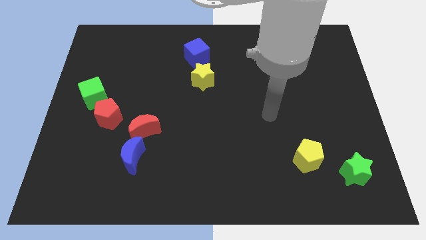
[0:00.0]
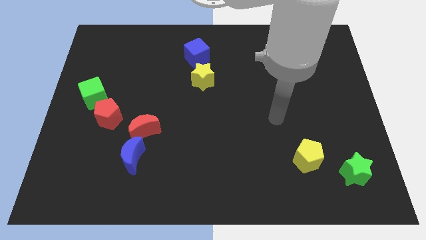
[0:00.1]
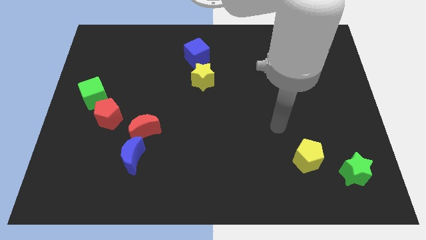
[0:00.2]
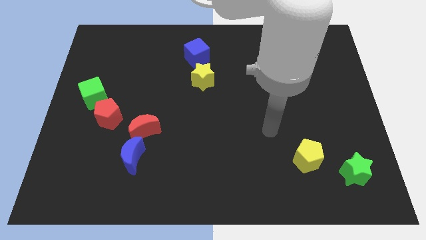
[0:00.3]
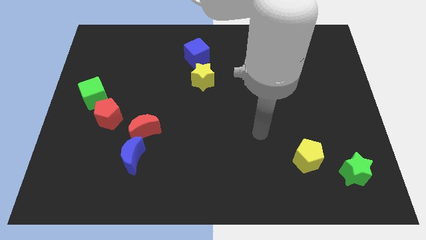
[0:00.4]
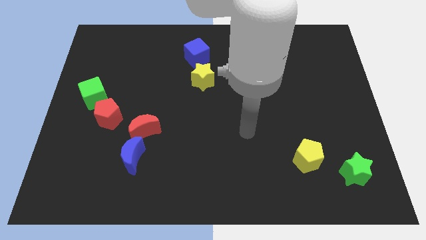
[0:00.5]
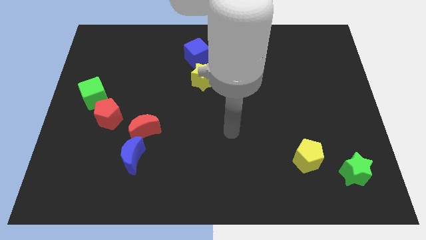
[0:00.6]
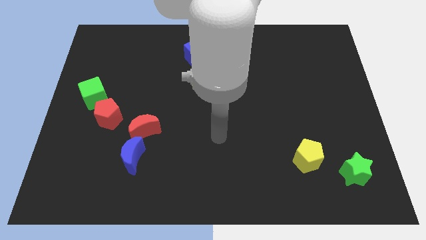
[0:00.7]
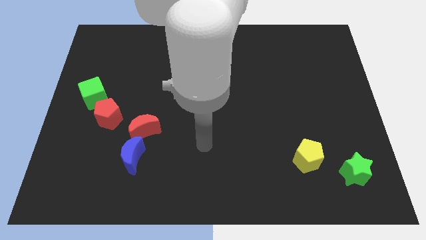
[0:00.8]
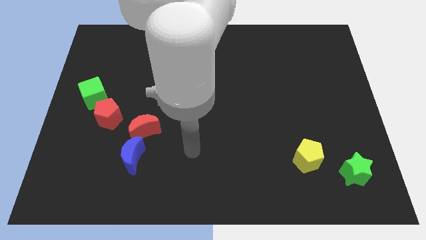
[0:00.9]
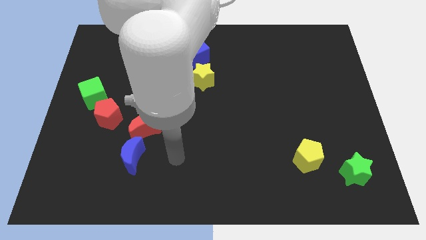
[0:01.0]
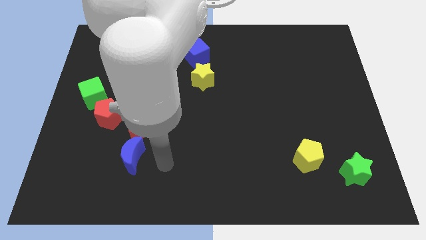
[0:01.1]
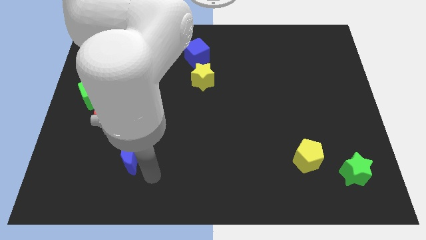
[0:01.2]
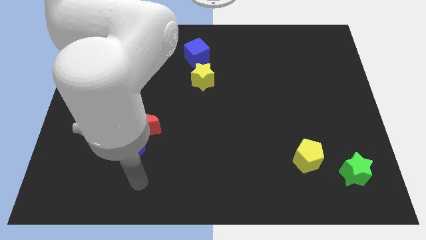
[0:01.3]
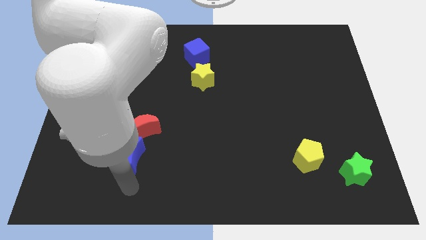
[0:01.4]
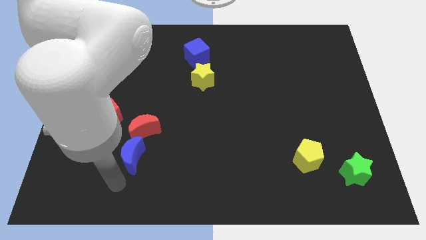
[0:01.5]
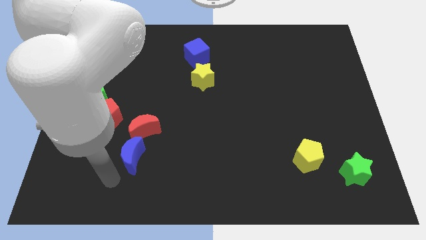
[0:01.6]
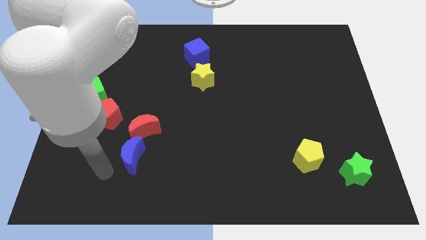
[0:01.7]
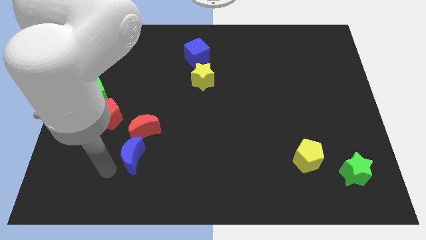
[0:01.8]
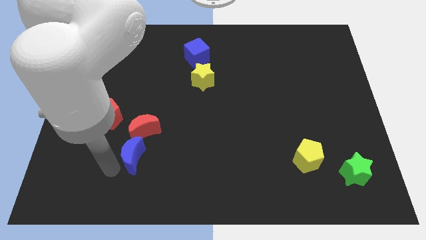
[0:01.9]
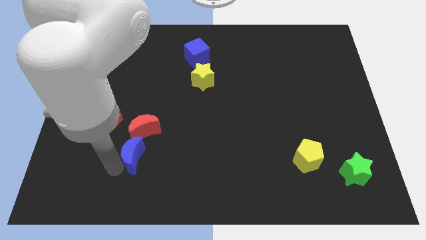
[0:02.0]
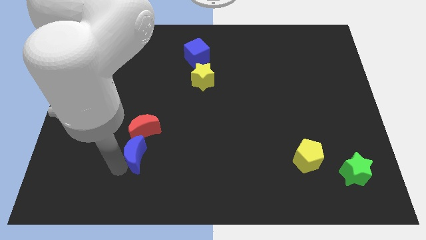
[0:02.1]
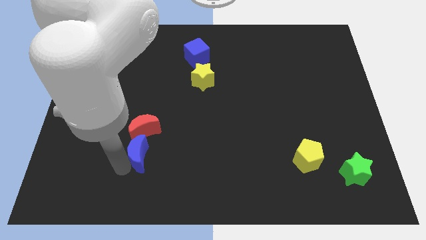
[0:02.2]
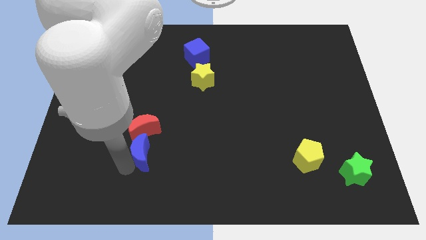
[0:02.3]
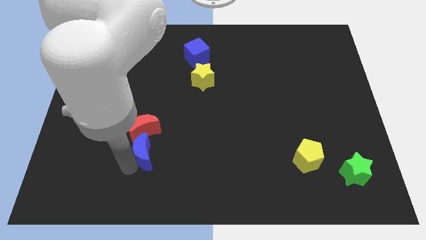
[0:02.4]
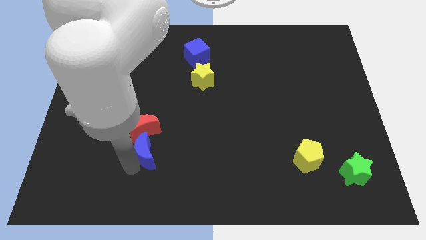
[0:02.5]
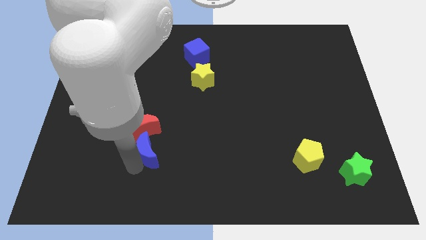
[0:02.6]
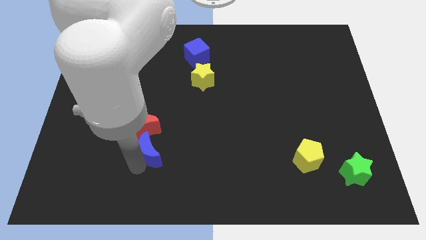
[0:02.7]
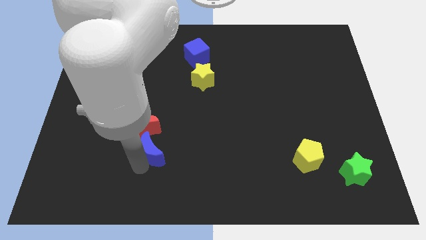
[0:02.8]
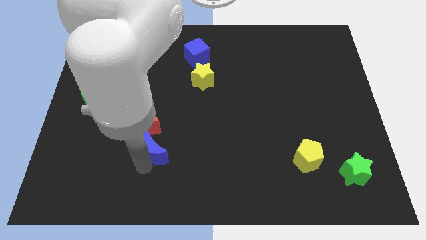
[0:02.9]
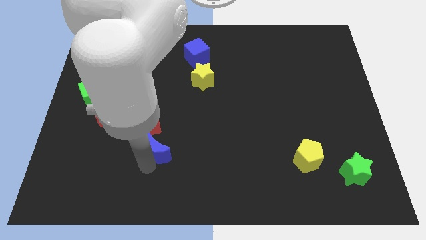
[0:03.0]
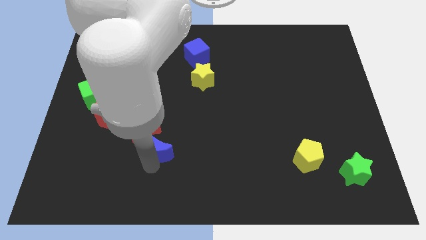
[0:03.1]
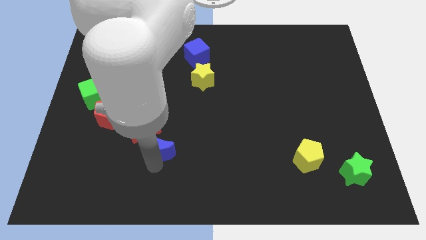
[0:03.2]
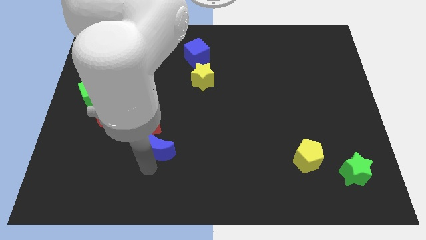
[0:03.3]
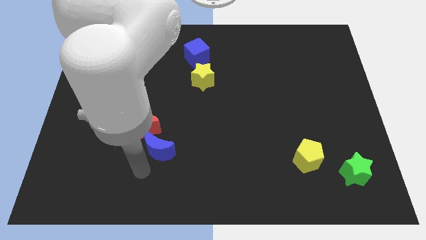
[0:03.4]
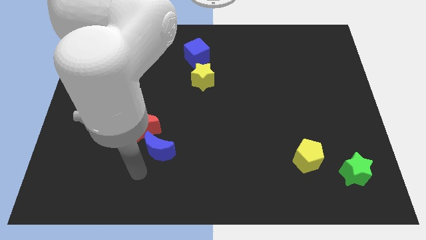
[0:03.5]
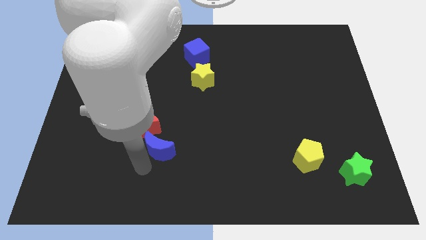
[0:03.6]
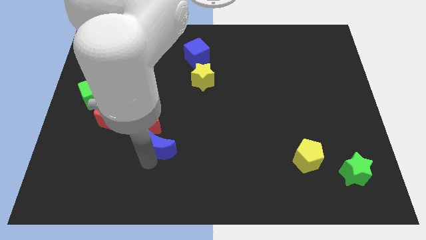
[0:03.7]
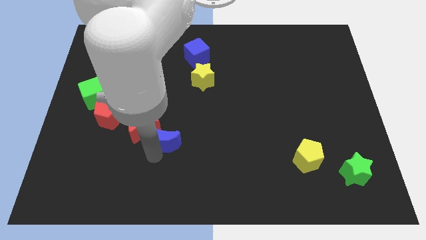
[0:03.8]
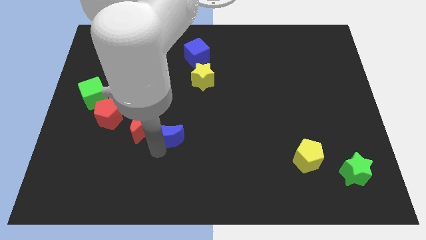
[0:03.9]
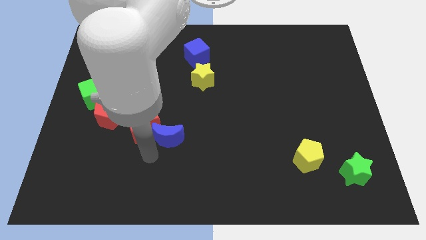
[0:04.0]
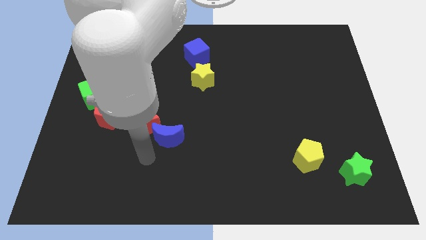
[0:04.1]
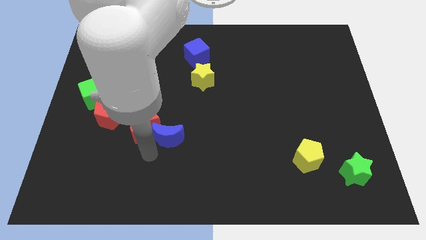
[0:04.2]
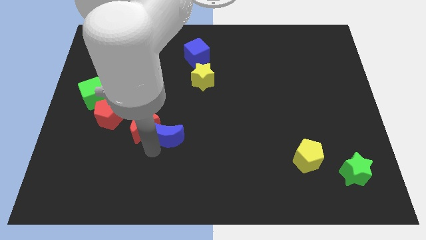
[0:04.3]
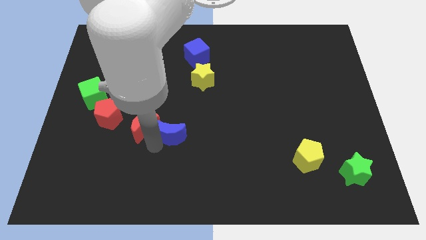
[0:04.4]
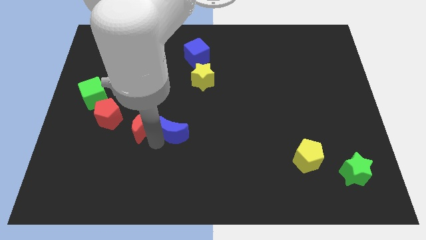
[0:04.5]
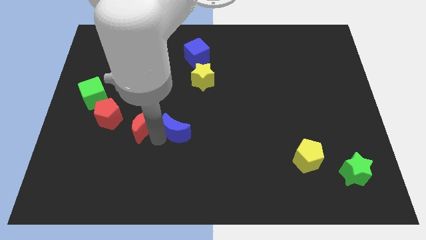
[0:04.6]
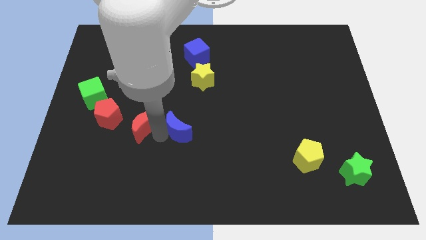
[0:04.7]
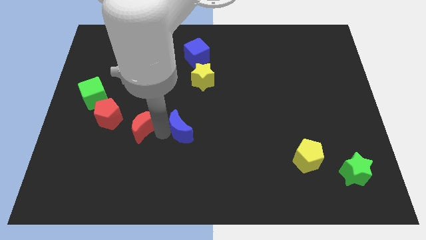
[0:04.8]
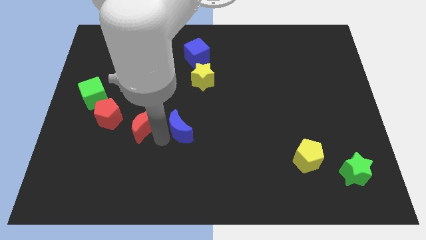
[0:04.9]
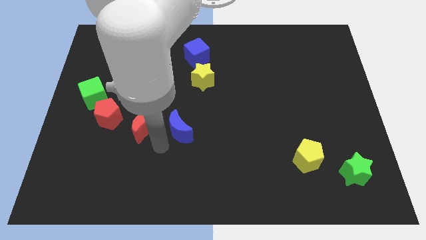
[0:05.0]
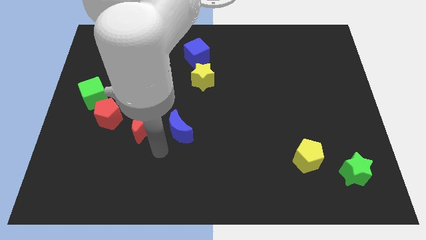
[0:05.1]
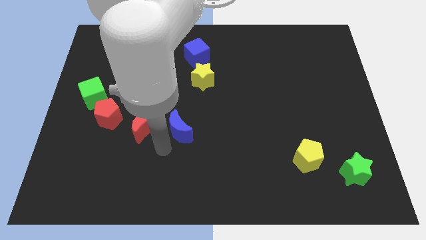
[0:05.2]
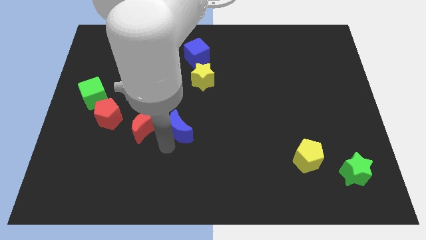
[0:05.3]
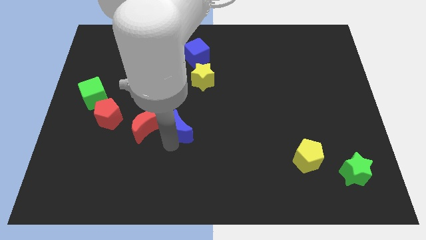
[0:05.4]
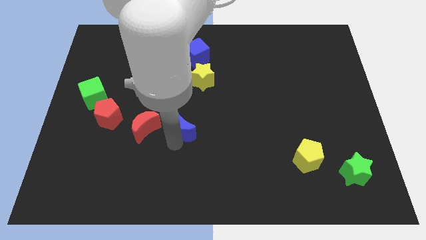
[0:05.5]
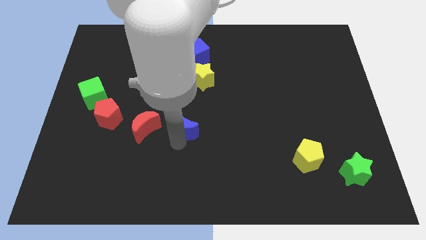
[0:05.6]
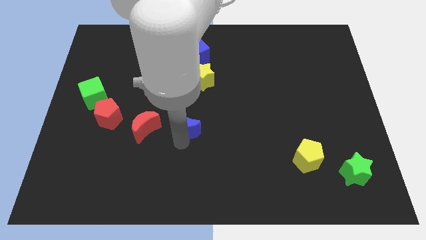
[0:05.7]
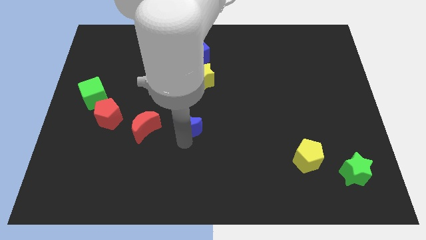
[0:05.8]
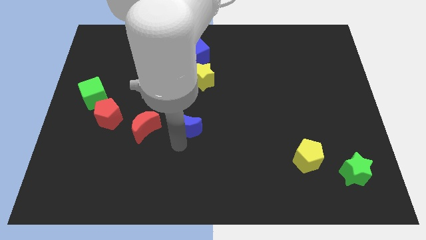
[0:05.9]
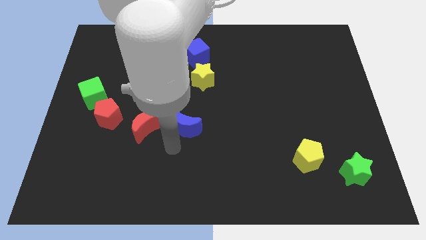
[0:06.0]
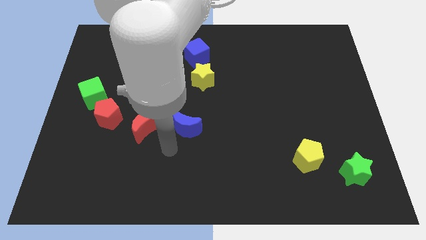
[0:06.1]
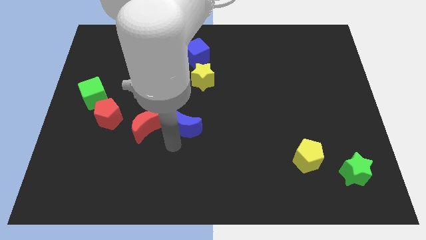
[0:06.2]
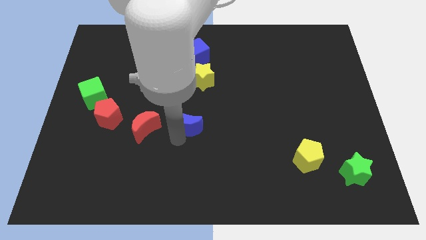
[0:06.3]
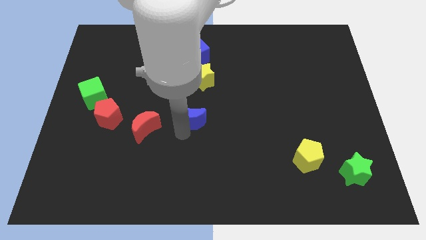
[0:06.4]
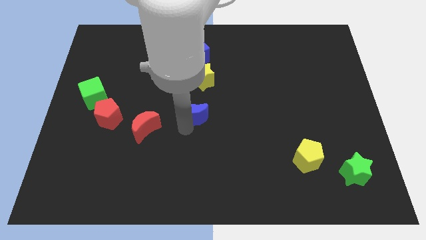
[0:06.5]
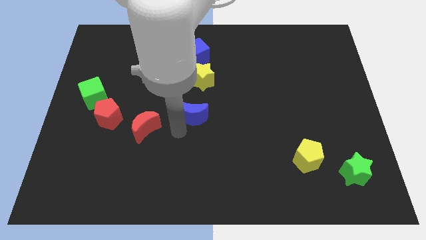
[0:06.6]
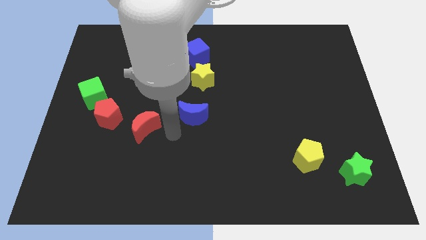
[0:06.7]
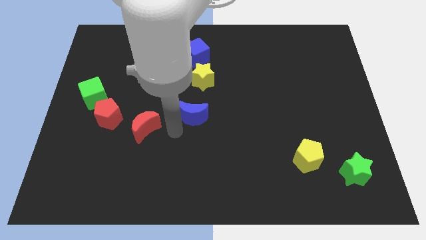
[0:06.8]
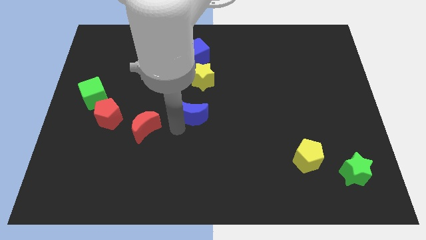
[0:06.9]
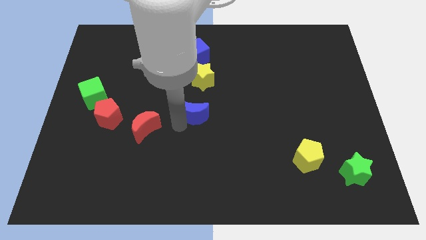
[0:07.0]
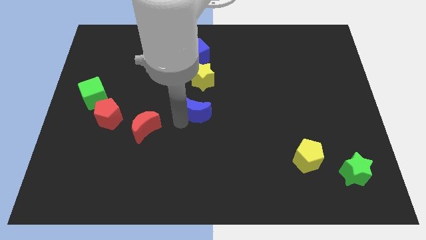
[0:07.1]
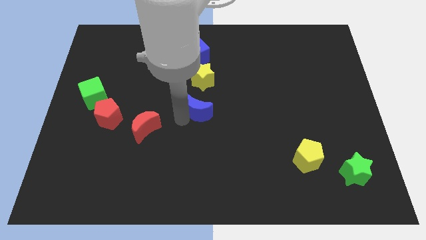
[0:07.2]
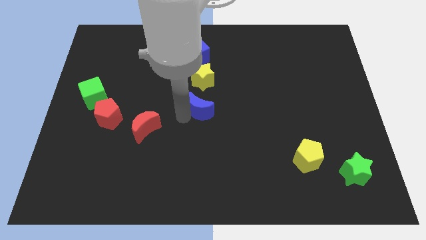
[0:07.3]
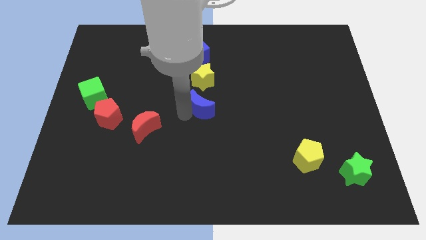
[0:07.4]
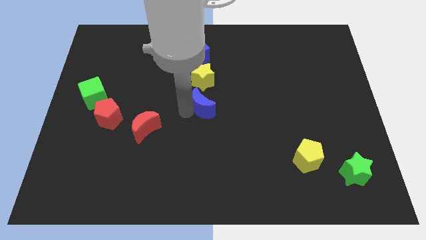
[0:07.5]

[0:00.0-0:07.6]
push the blue moon diagonally up and right
